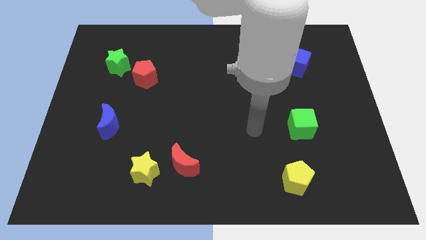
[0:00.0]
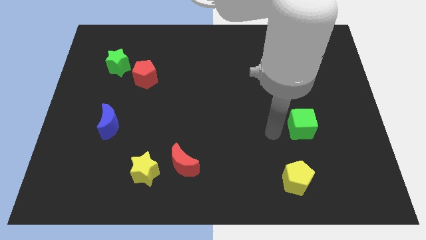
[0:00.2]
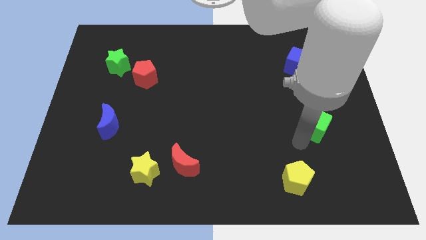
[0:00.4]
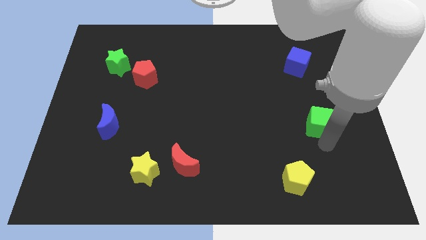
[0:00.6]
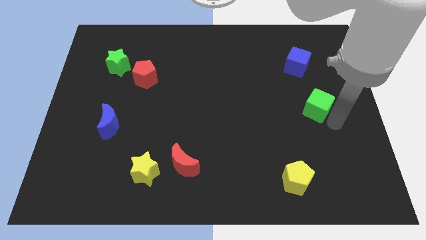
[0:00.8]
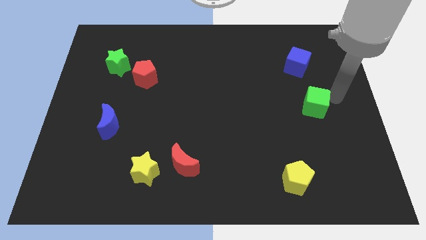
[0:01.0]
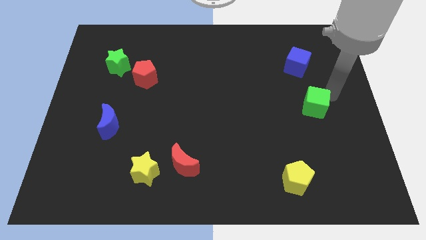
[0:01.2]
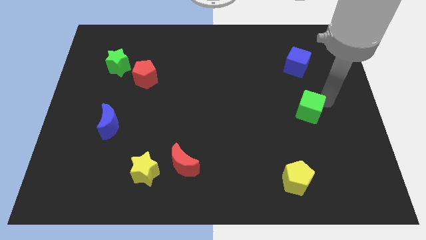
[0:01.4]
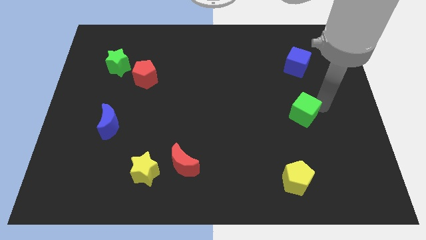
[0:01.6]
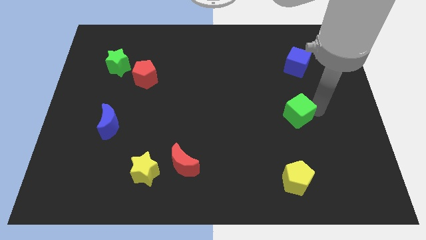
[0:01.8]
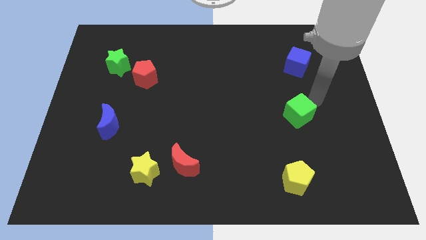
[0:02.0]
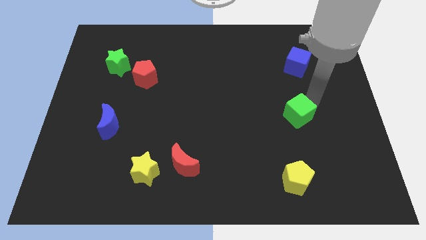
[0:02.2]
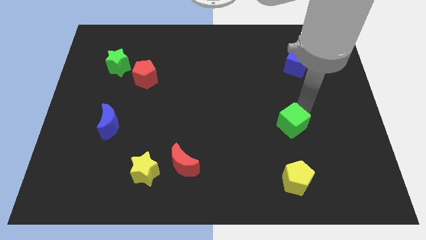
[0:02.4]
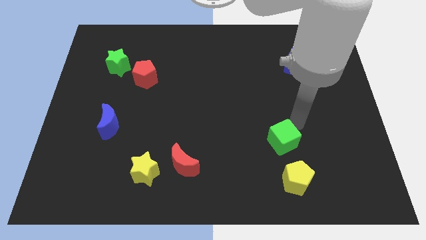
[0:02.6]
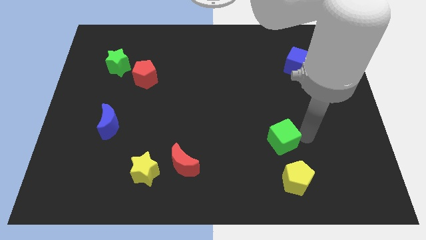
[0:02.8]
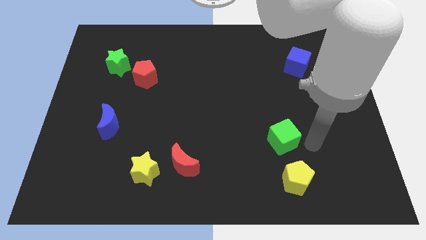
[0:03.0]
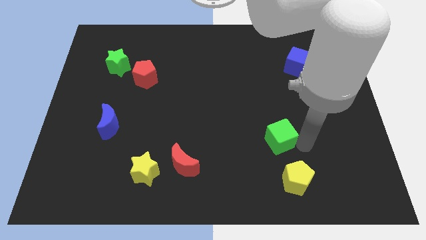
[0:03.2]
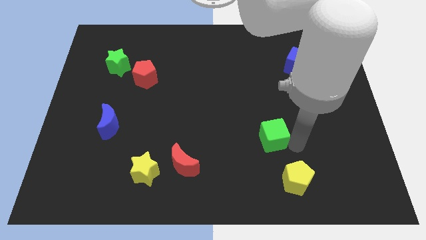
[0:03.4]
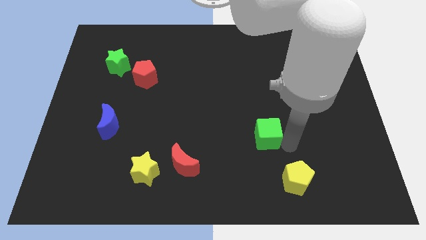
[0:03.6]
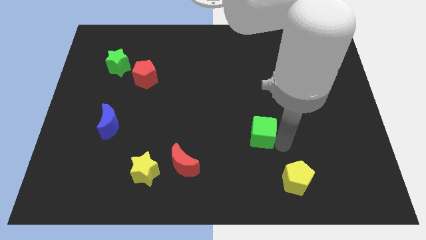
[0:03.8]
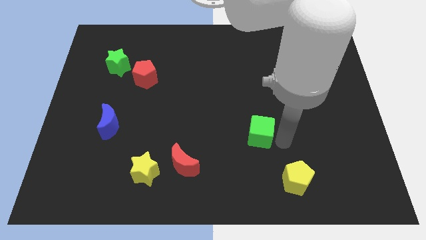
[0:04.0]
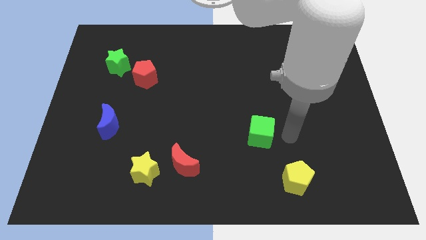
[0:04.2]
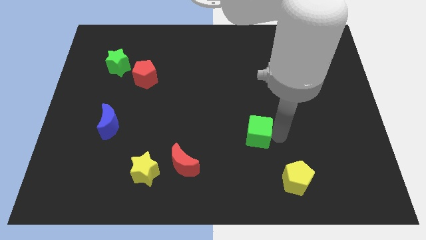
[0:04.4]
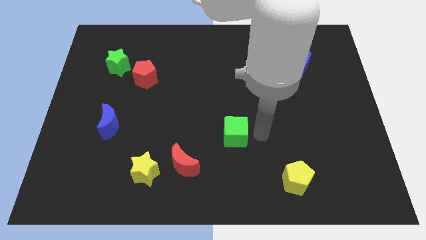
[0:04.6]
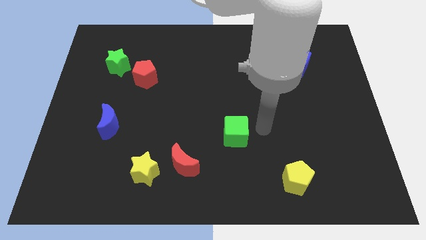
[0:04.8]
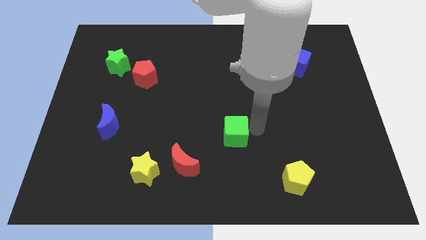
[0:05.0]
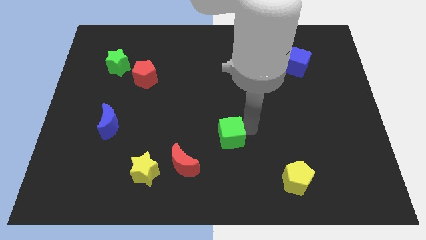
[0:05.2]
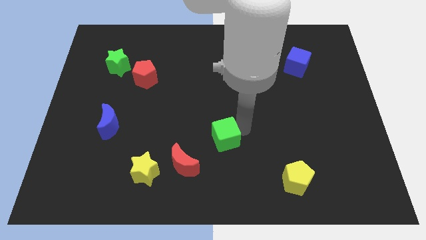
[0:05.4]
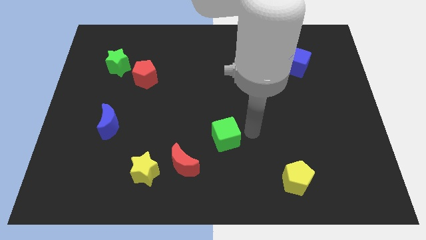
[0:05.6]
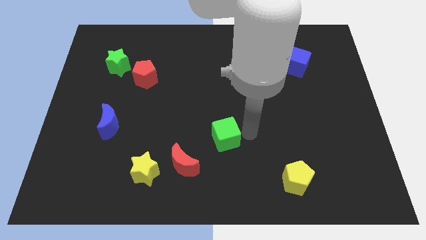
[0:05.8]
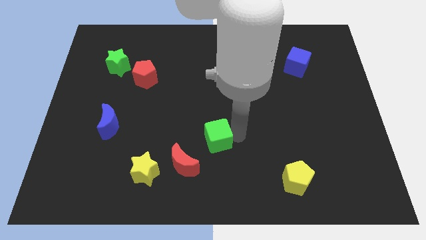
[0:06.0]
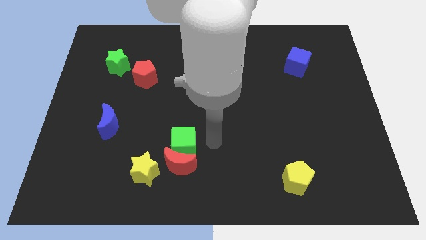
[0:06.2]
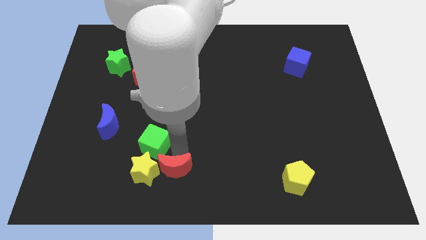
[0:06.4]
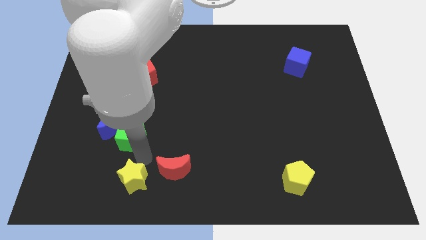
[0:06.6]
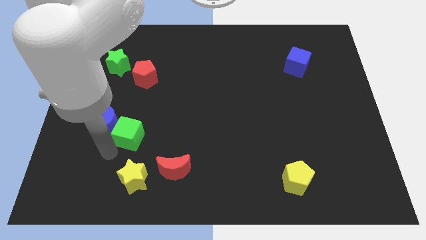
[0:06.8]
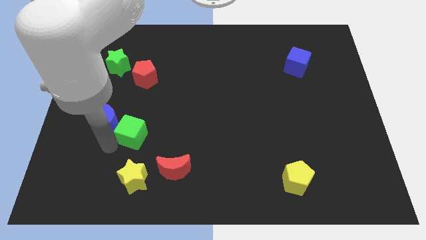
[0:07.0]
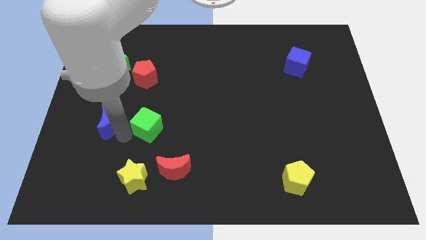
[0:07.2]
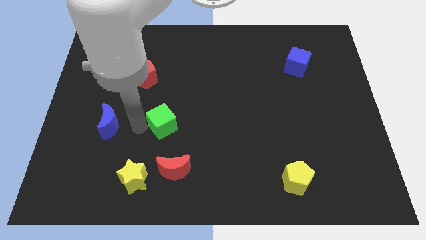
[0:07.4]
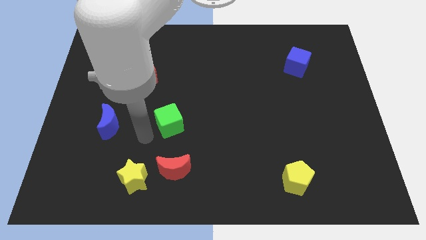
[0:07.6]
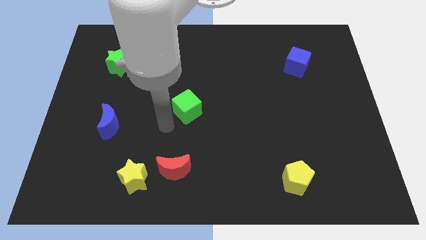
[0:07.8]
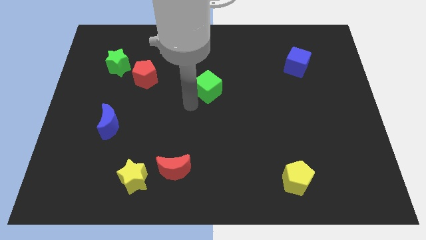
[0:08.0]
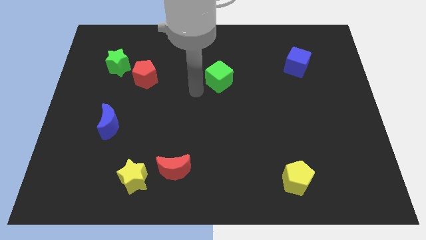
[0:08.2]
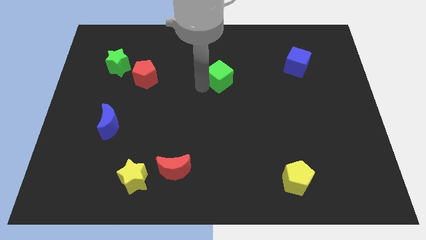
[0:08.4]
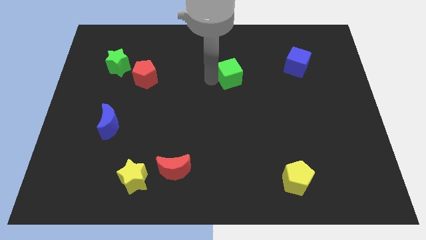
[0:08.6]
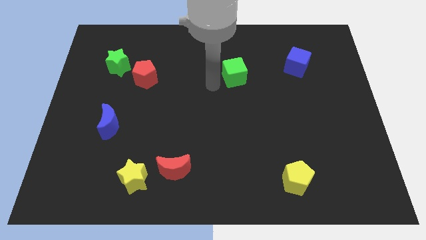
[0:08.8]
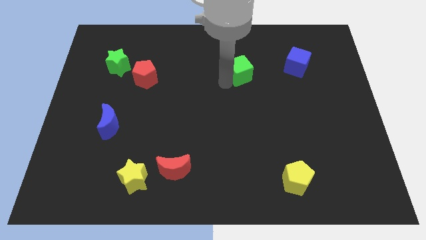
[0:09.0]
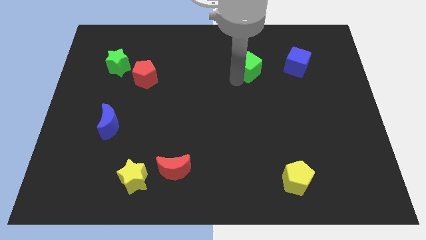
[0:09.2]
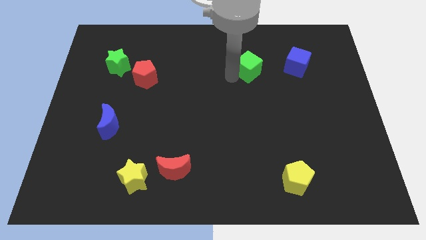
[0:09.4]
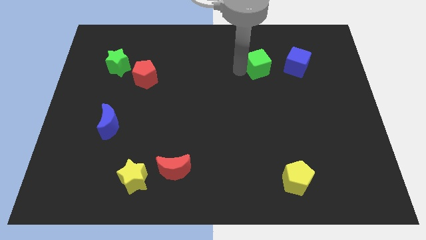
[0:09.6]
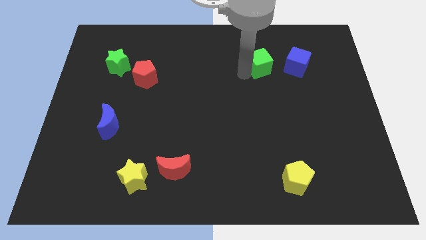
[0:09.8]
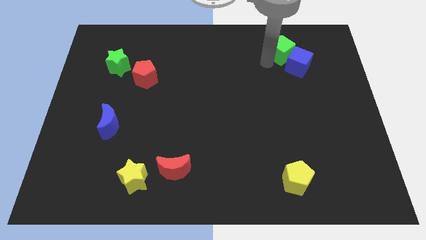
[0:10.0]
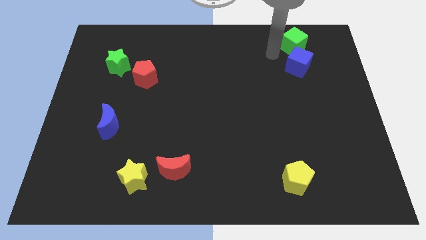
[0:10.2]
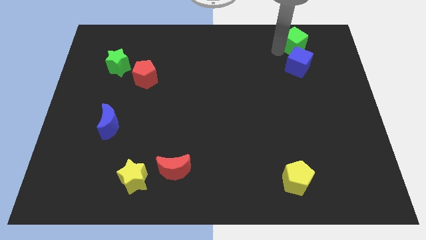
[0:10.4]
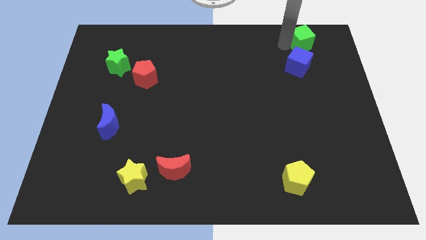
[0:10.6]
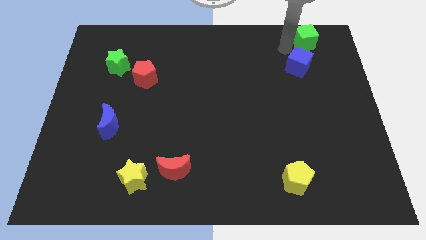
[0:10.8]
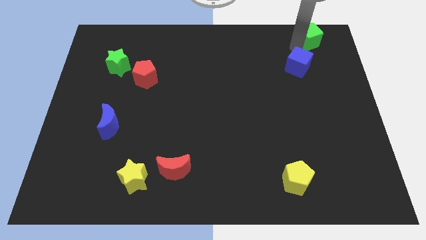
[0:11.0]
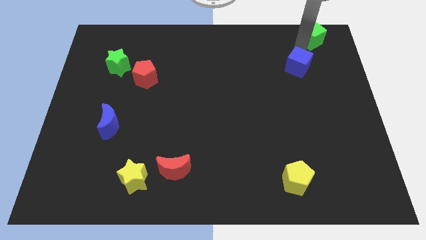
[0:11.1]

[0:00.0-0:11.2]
push the green cube to the upper right corner

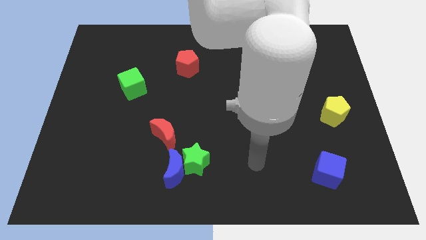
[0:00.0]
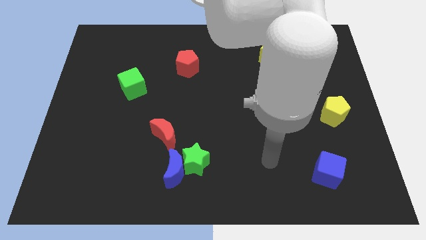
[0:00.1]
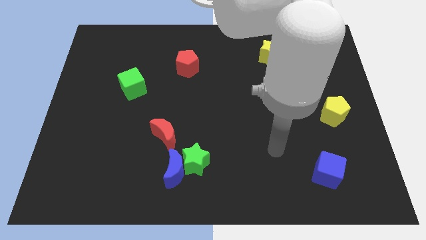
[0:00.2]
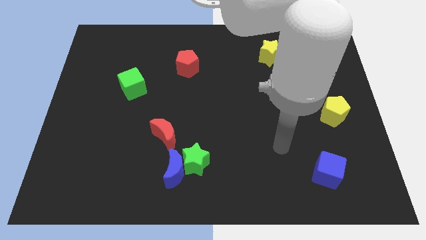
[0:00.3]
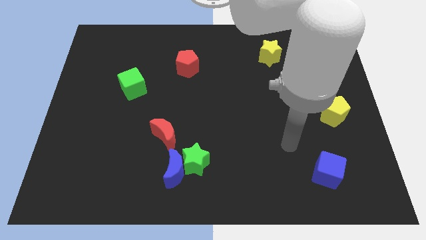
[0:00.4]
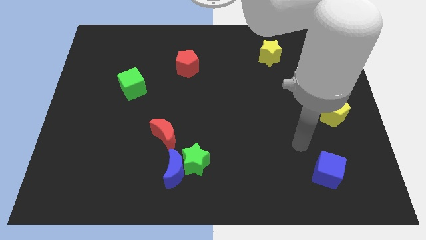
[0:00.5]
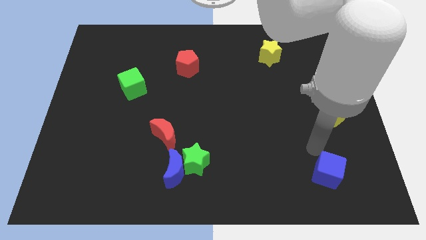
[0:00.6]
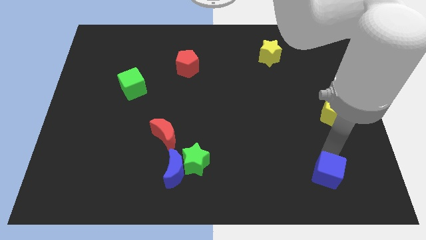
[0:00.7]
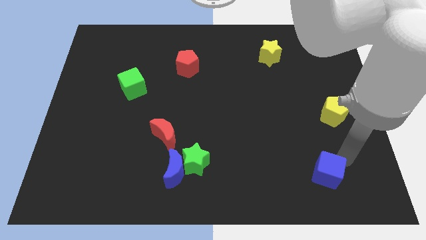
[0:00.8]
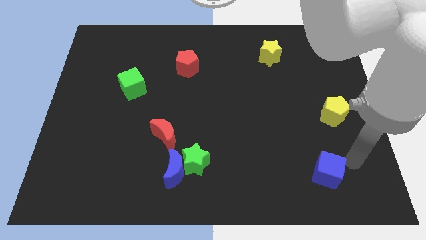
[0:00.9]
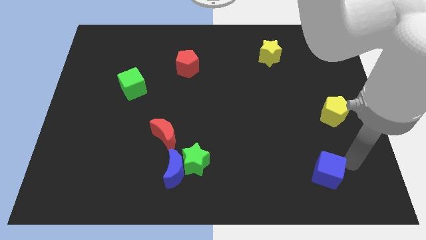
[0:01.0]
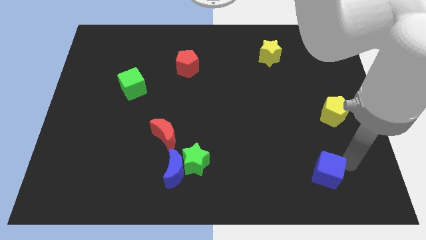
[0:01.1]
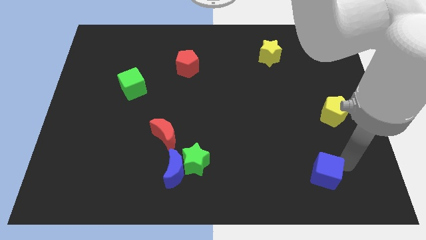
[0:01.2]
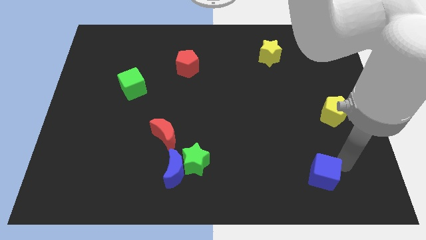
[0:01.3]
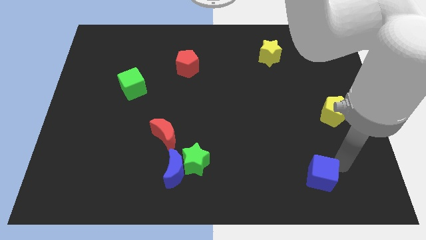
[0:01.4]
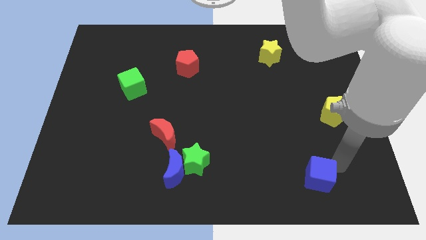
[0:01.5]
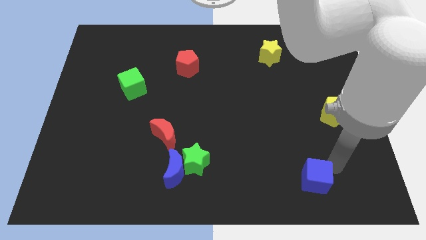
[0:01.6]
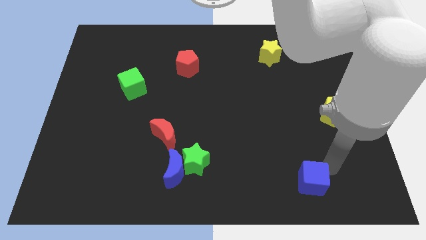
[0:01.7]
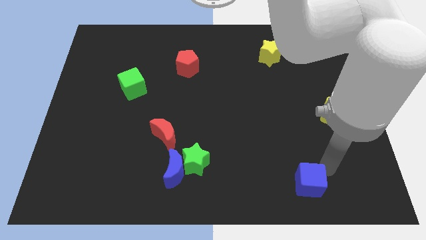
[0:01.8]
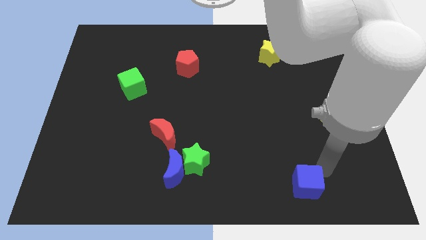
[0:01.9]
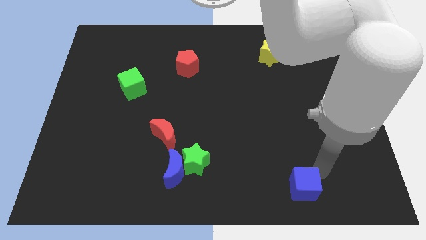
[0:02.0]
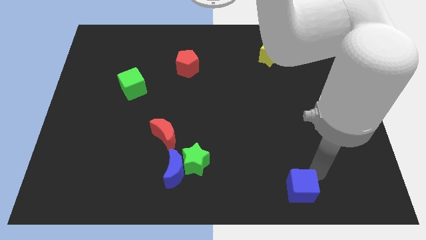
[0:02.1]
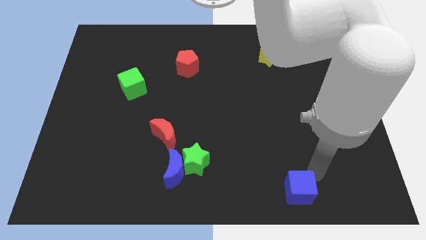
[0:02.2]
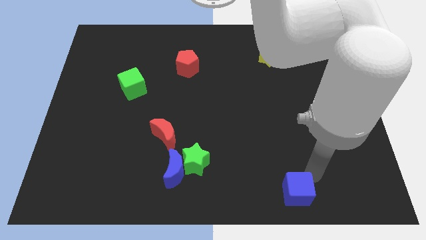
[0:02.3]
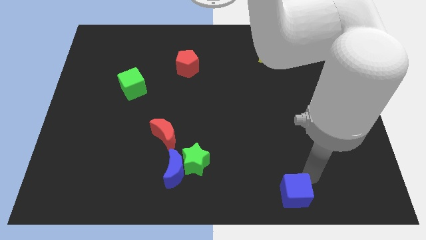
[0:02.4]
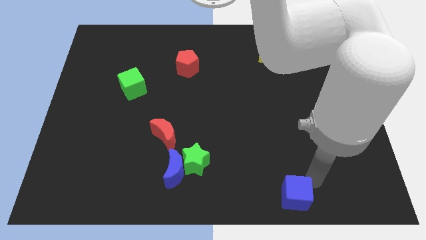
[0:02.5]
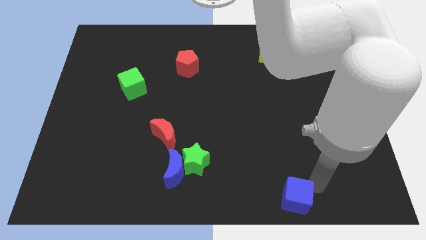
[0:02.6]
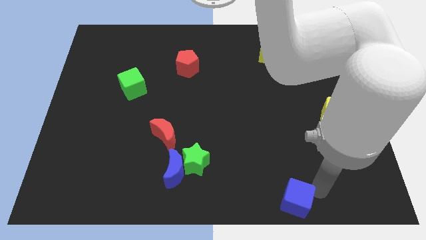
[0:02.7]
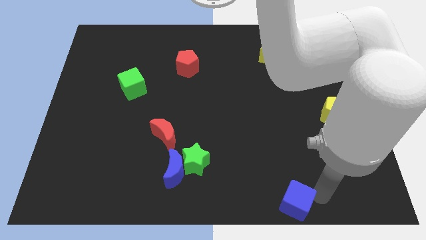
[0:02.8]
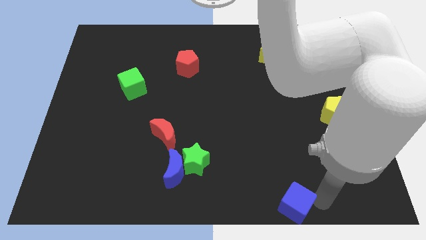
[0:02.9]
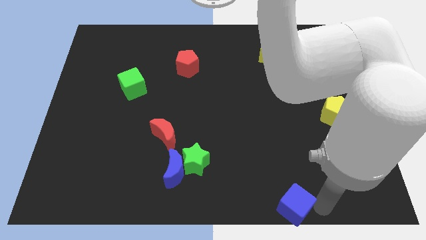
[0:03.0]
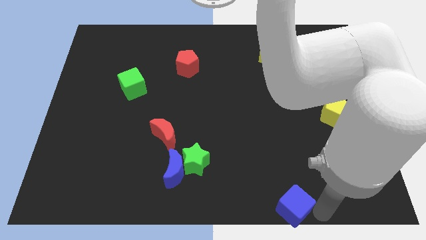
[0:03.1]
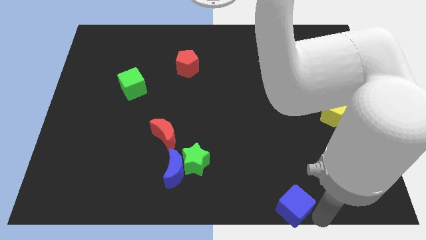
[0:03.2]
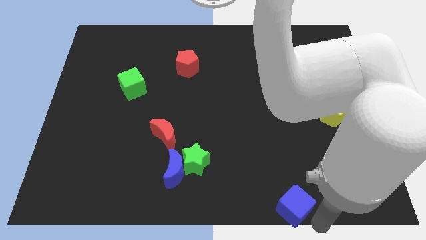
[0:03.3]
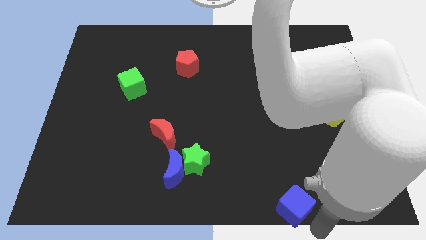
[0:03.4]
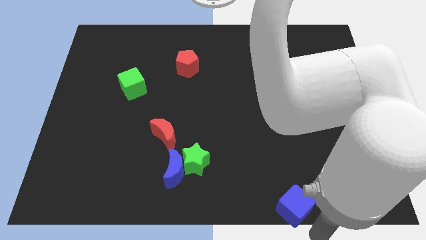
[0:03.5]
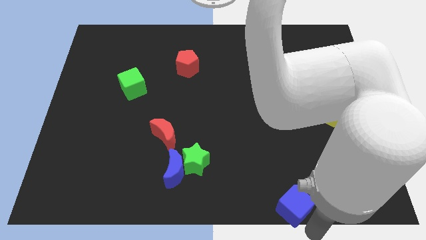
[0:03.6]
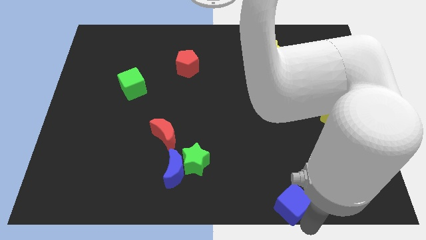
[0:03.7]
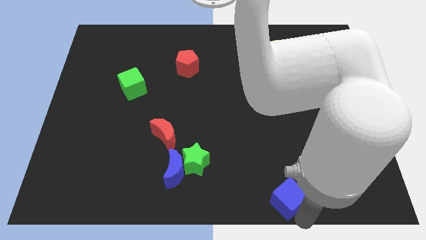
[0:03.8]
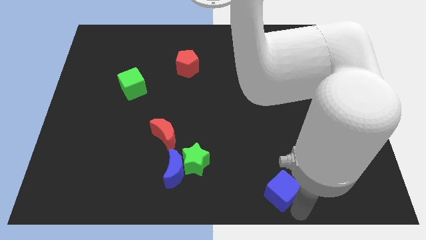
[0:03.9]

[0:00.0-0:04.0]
put the blue cube to the bottom
